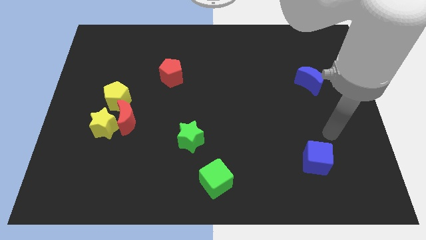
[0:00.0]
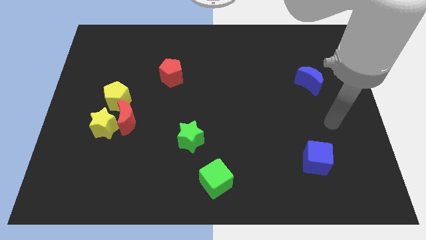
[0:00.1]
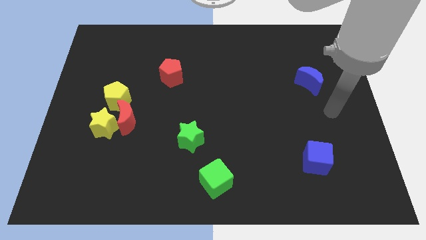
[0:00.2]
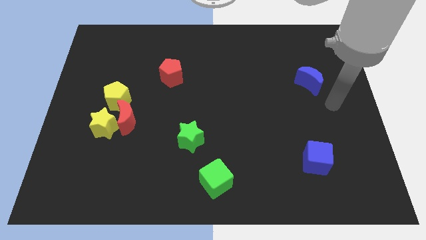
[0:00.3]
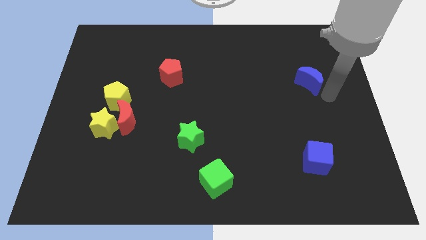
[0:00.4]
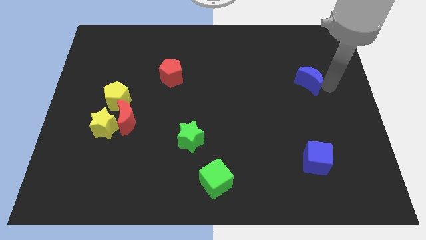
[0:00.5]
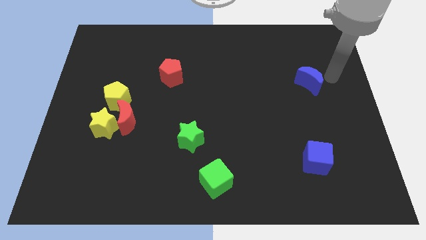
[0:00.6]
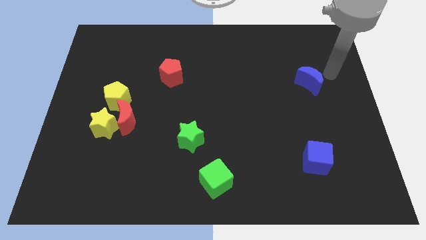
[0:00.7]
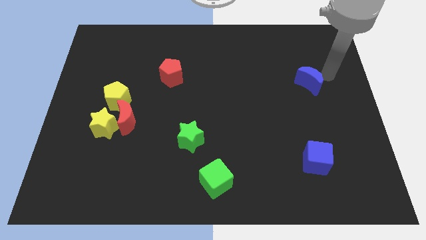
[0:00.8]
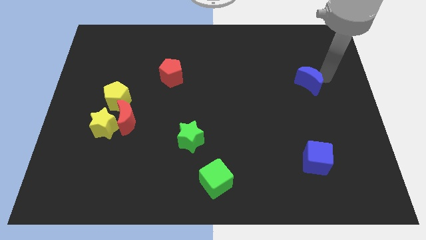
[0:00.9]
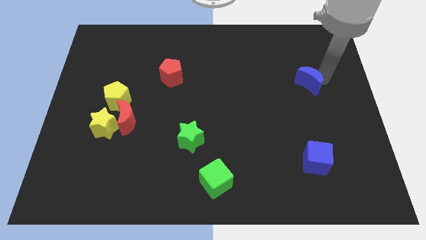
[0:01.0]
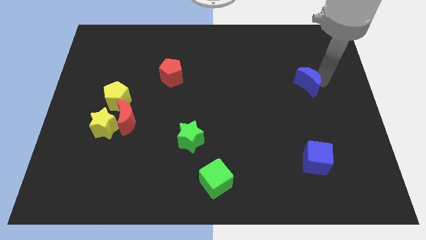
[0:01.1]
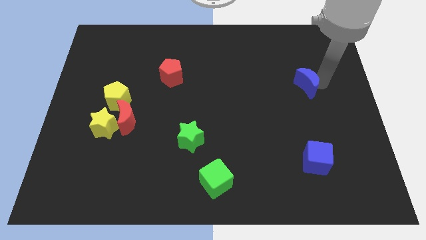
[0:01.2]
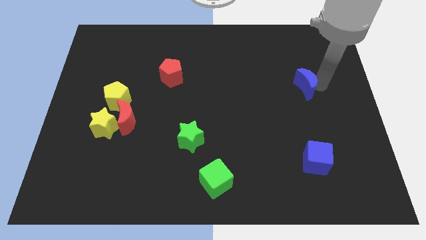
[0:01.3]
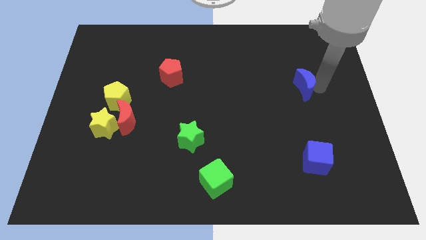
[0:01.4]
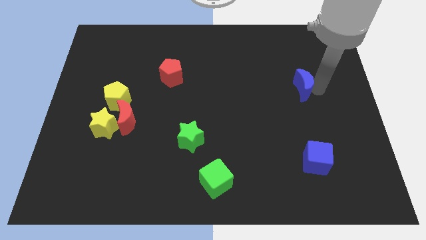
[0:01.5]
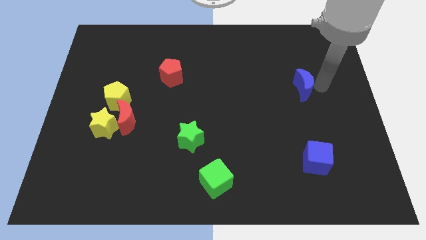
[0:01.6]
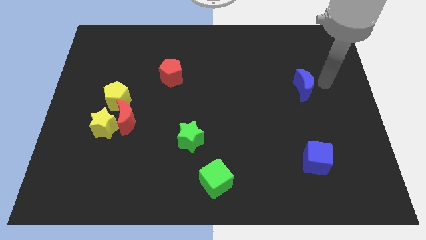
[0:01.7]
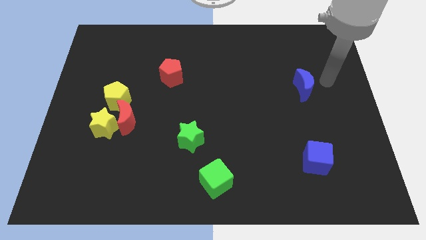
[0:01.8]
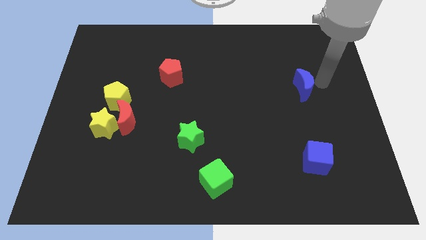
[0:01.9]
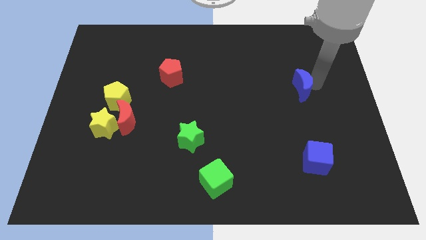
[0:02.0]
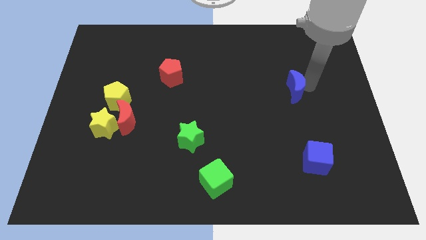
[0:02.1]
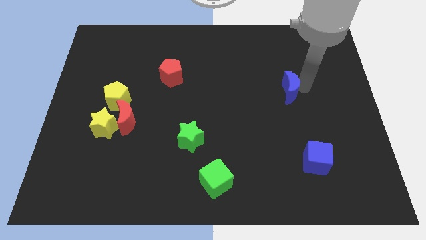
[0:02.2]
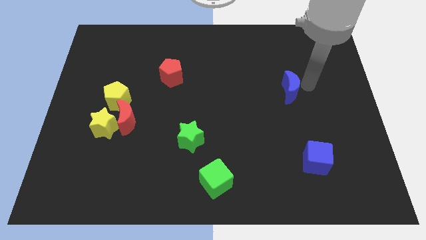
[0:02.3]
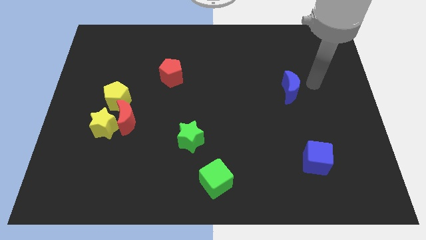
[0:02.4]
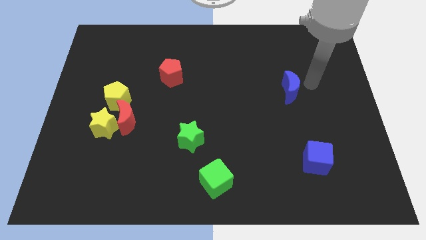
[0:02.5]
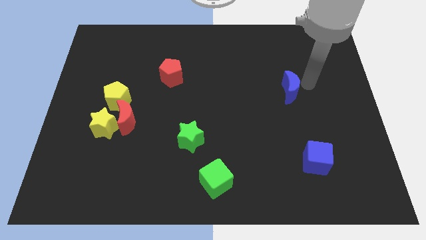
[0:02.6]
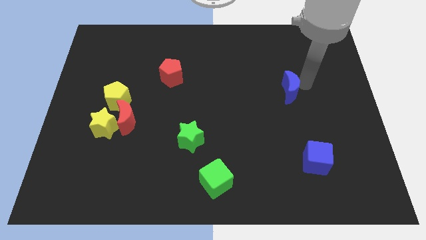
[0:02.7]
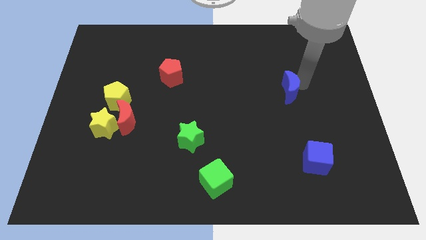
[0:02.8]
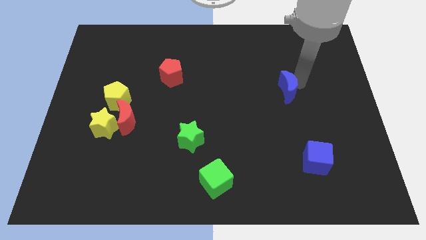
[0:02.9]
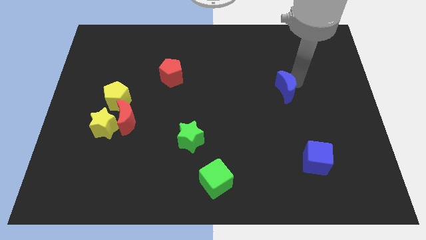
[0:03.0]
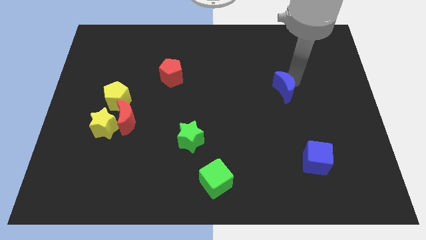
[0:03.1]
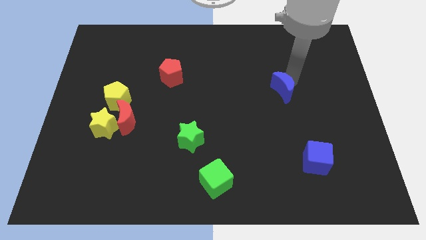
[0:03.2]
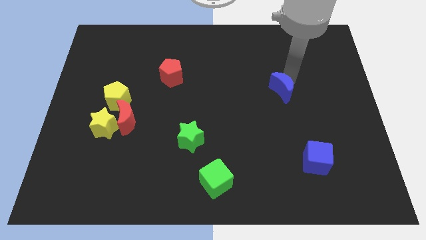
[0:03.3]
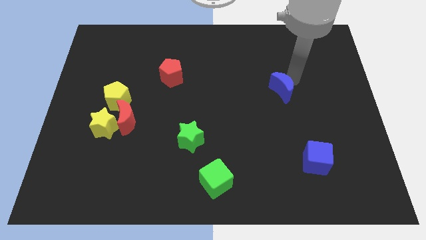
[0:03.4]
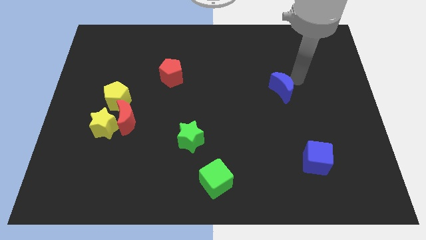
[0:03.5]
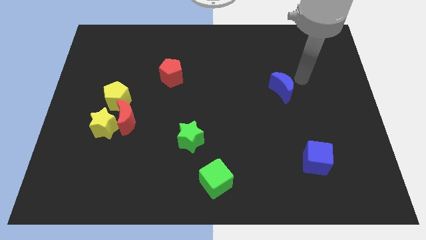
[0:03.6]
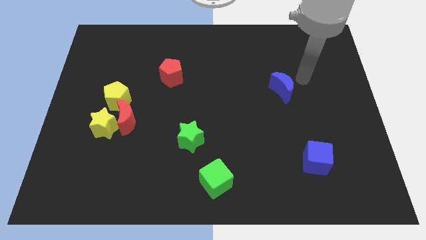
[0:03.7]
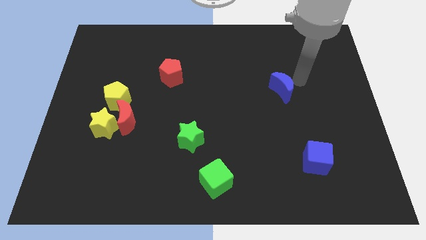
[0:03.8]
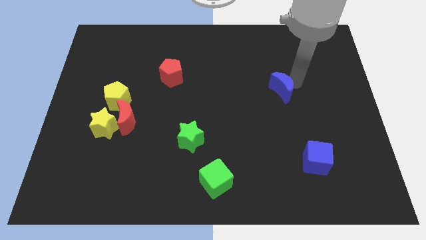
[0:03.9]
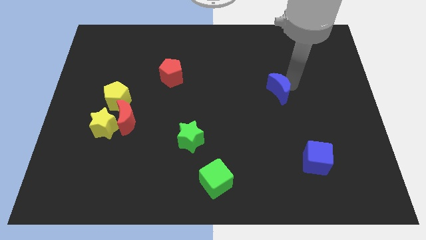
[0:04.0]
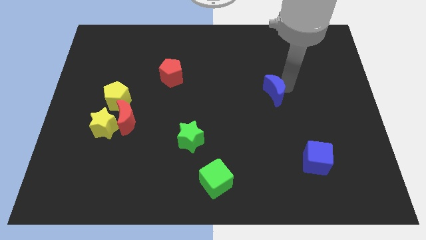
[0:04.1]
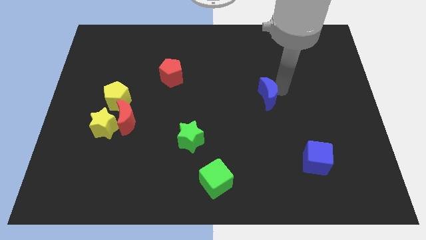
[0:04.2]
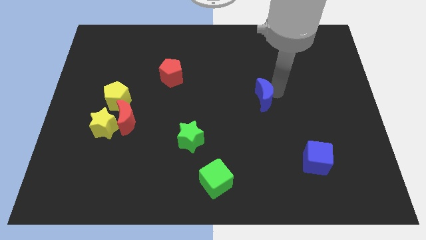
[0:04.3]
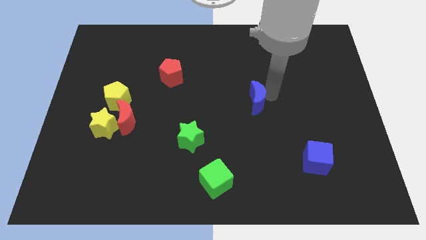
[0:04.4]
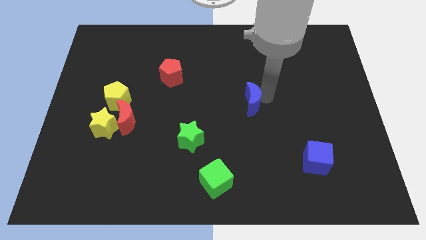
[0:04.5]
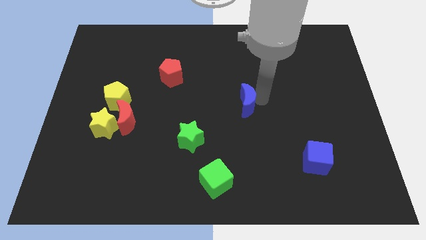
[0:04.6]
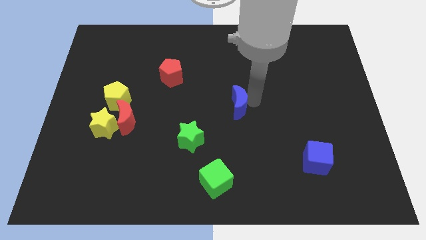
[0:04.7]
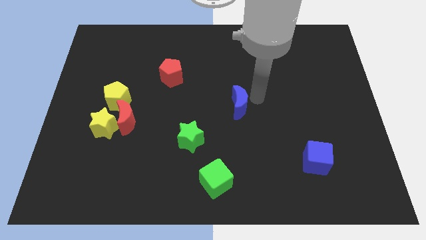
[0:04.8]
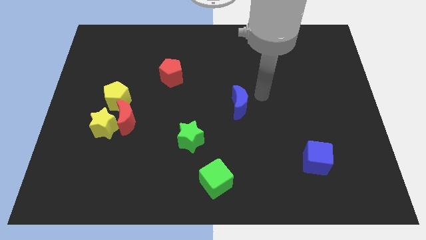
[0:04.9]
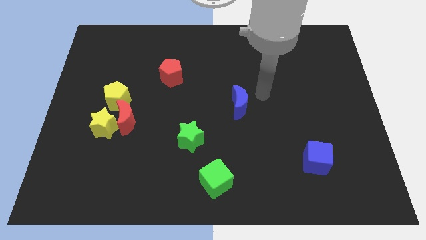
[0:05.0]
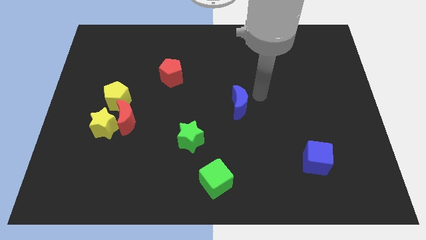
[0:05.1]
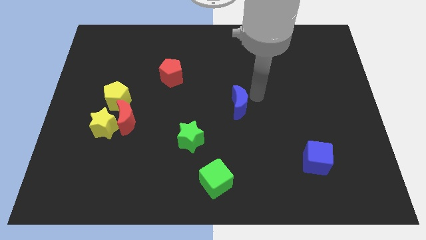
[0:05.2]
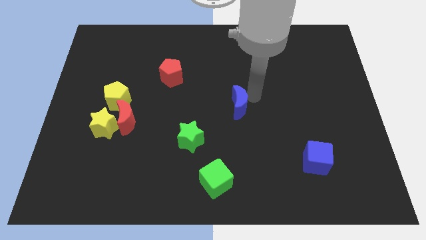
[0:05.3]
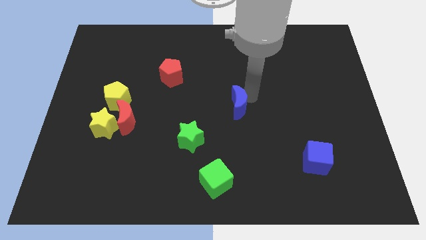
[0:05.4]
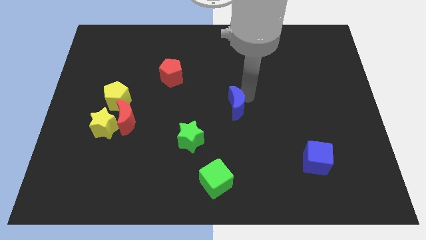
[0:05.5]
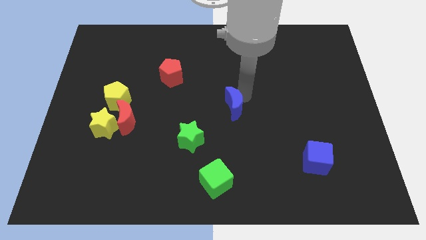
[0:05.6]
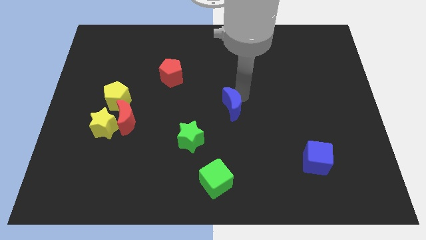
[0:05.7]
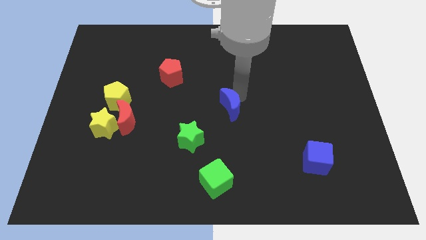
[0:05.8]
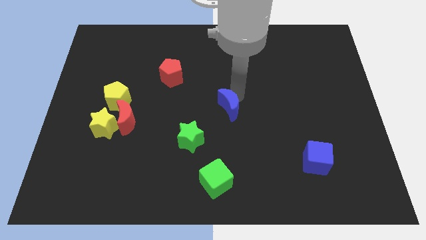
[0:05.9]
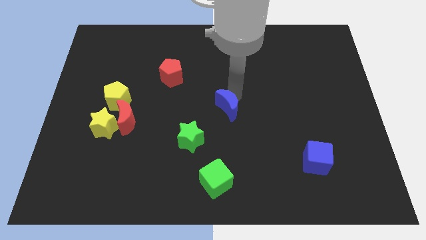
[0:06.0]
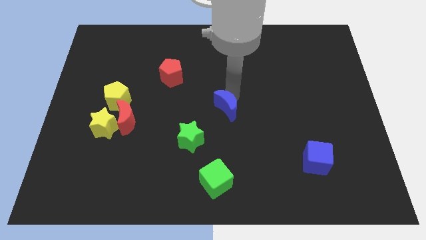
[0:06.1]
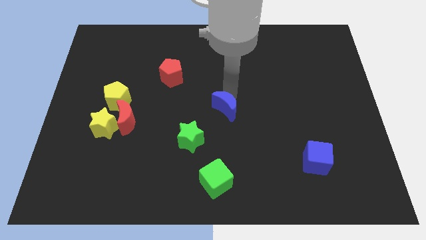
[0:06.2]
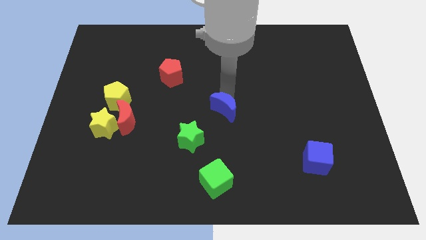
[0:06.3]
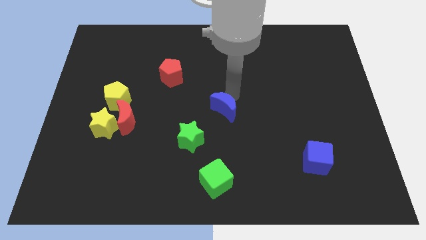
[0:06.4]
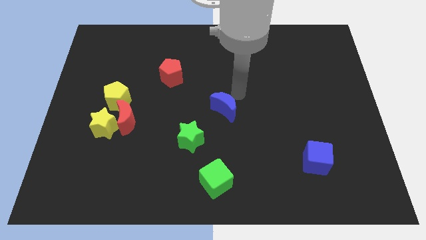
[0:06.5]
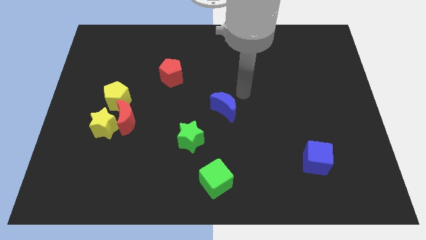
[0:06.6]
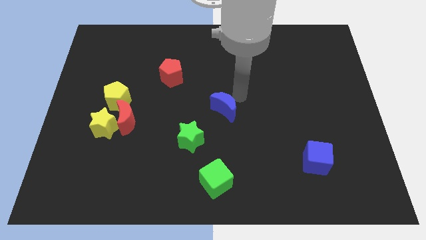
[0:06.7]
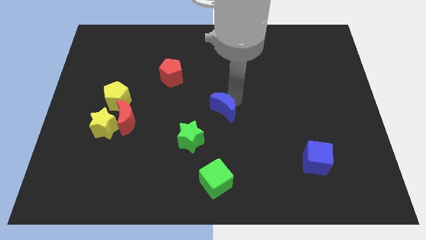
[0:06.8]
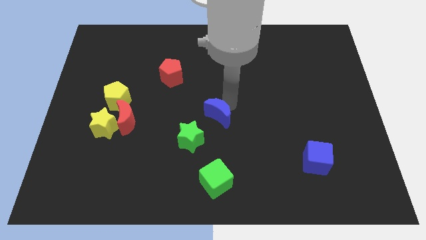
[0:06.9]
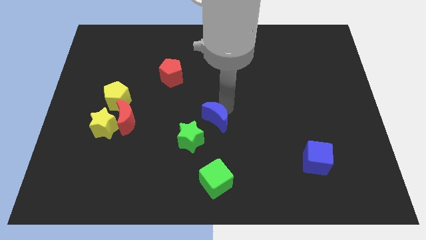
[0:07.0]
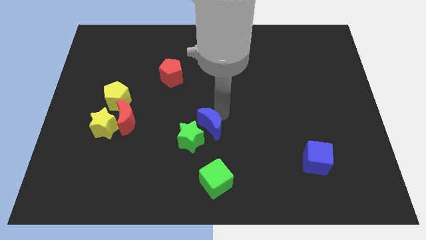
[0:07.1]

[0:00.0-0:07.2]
put the blue moon to the green star
